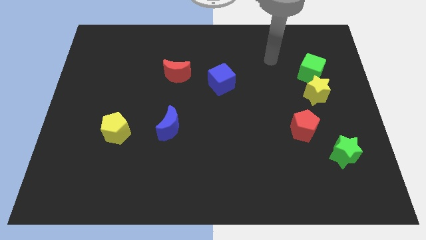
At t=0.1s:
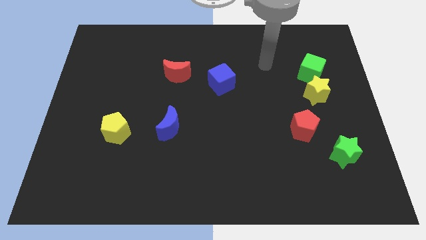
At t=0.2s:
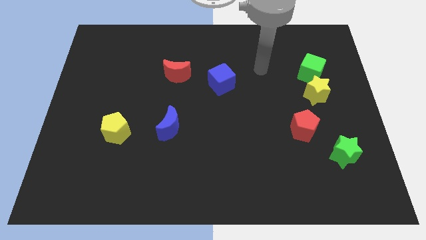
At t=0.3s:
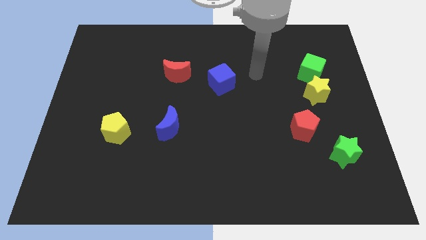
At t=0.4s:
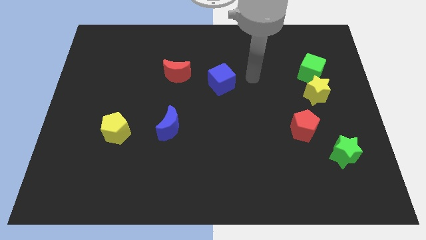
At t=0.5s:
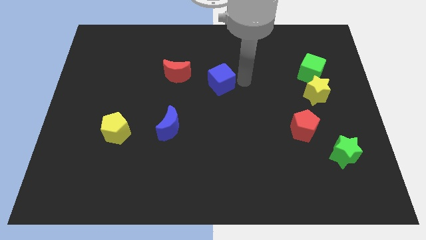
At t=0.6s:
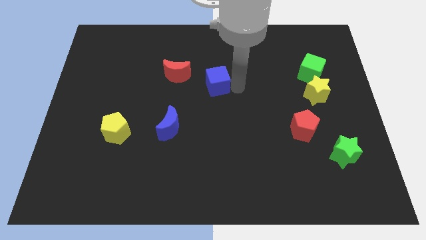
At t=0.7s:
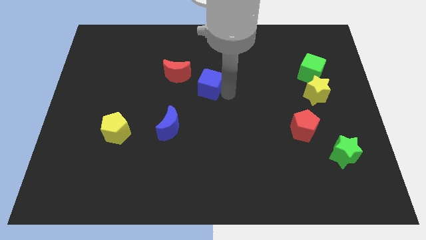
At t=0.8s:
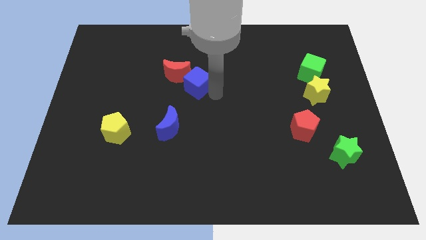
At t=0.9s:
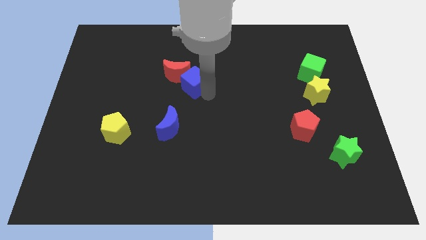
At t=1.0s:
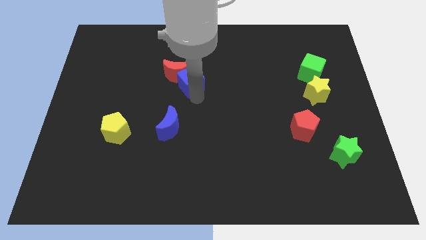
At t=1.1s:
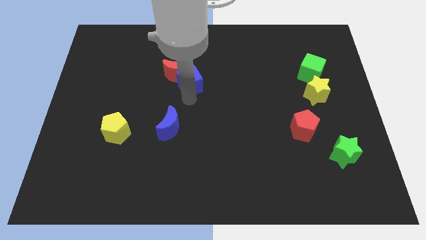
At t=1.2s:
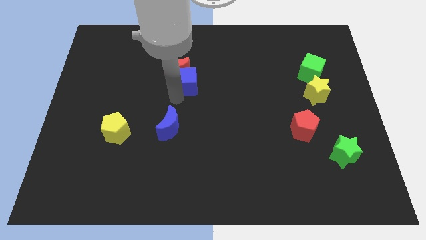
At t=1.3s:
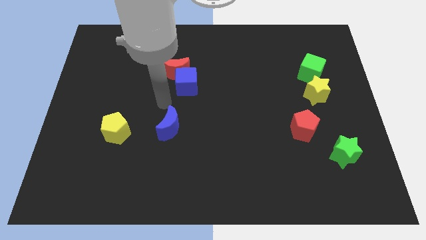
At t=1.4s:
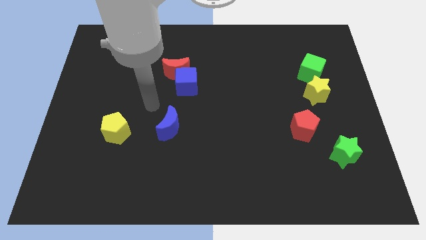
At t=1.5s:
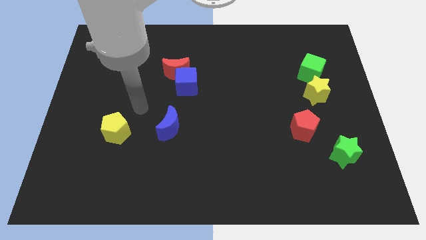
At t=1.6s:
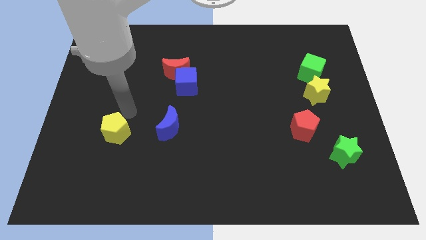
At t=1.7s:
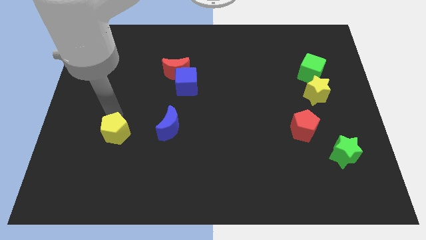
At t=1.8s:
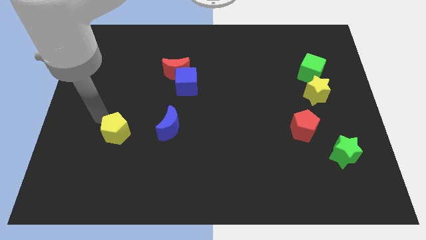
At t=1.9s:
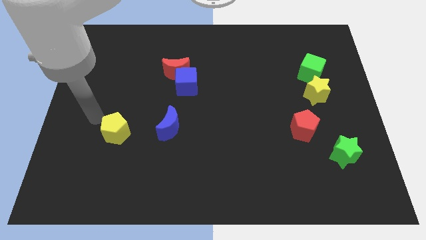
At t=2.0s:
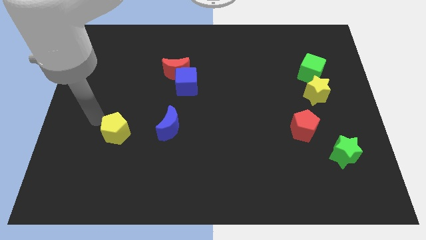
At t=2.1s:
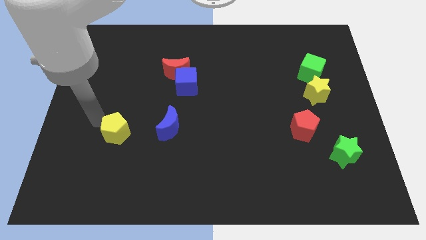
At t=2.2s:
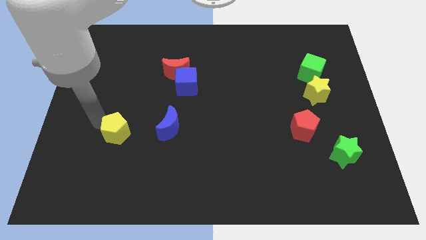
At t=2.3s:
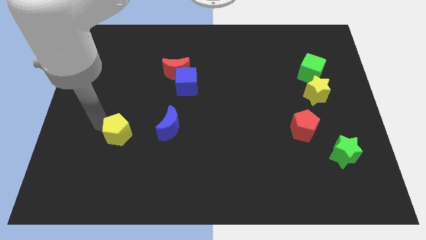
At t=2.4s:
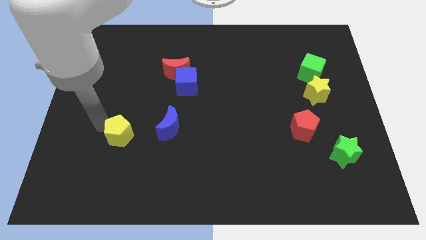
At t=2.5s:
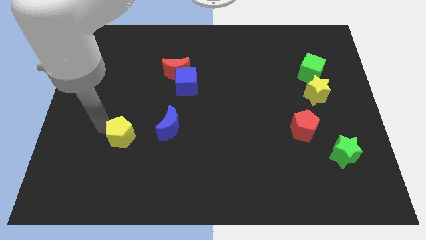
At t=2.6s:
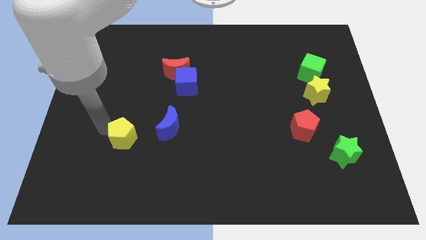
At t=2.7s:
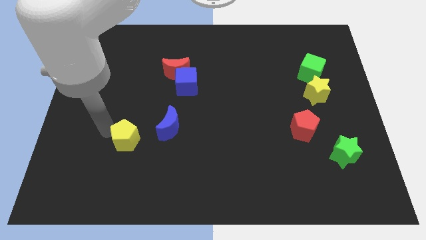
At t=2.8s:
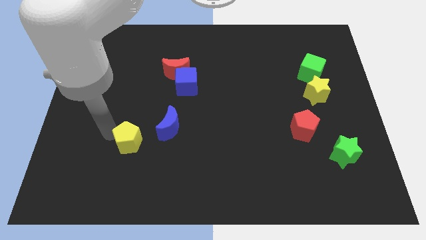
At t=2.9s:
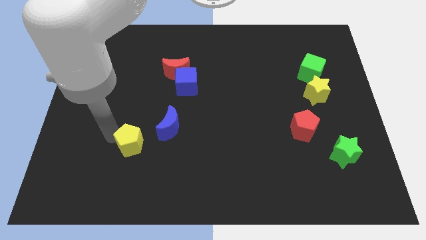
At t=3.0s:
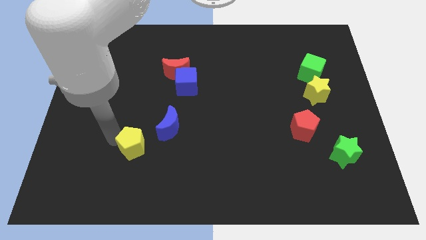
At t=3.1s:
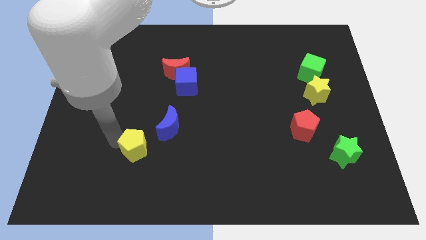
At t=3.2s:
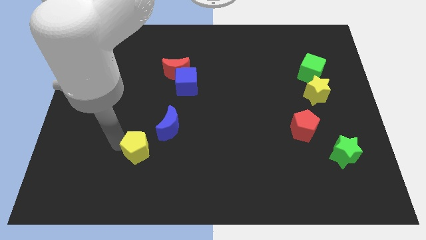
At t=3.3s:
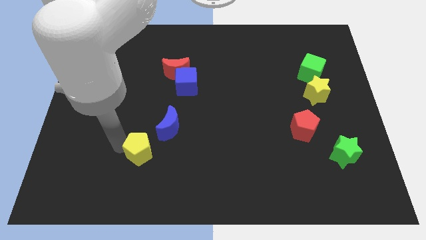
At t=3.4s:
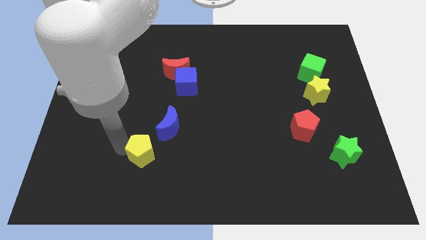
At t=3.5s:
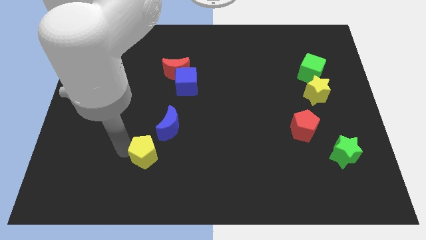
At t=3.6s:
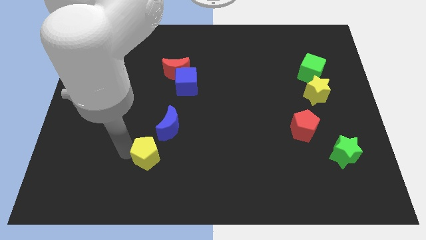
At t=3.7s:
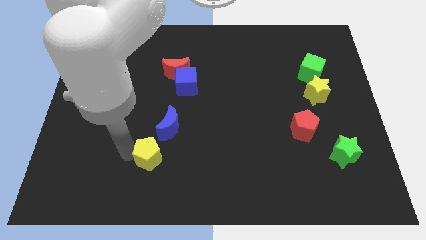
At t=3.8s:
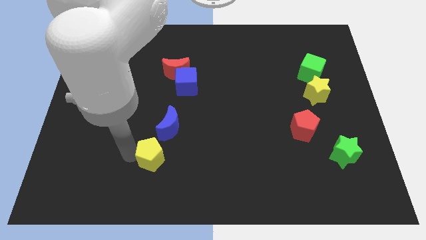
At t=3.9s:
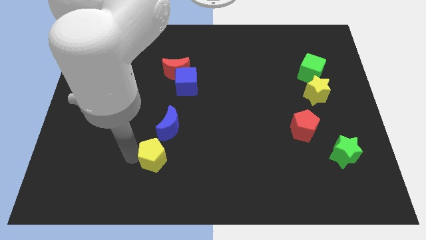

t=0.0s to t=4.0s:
slide the yellow pentagon a little to the right

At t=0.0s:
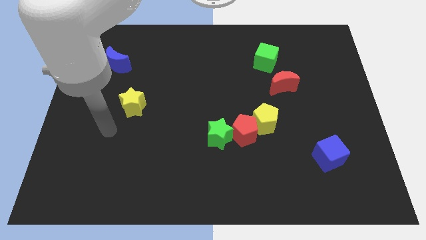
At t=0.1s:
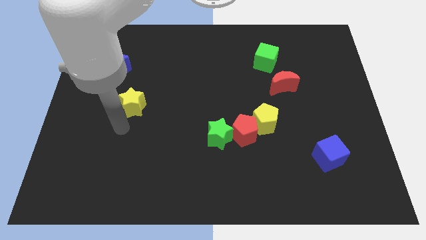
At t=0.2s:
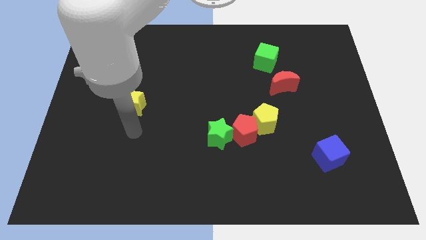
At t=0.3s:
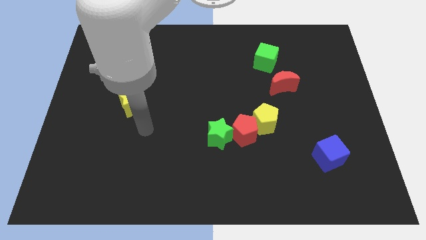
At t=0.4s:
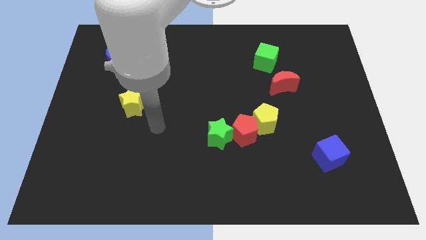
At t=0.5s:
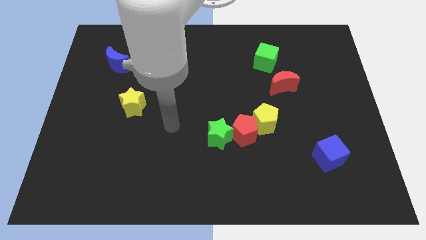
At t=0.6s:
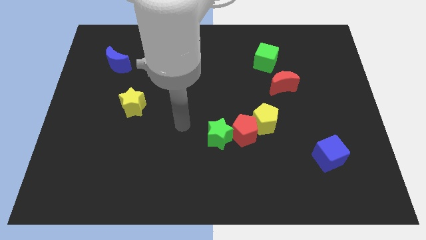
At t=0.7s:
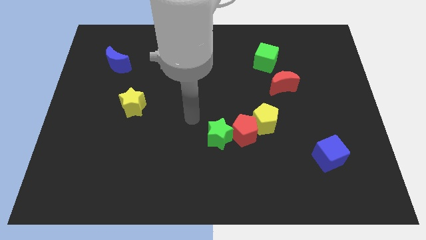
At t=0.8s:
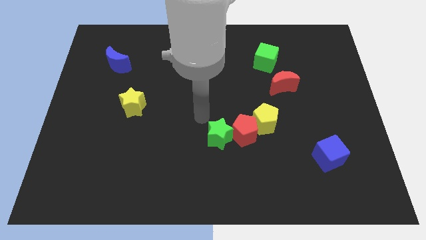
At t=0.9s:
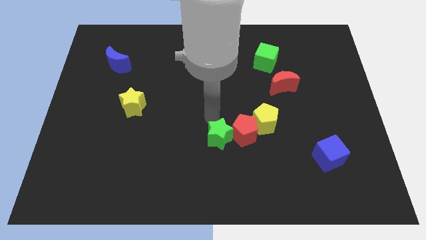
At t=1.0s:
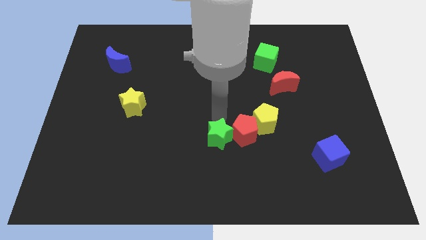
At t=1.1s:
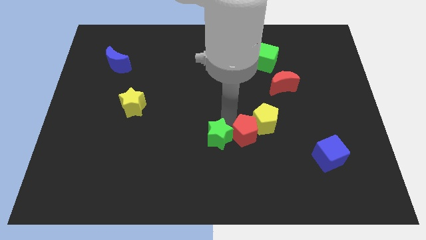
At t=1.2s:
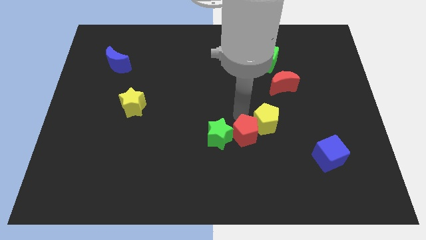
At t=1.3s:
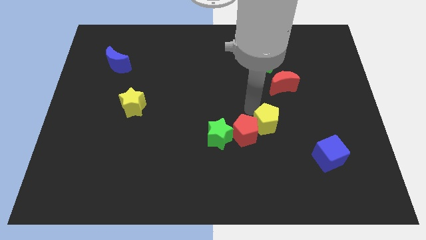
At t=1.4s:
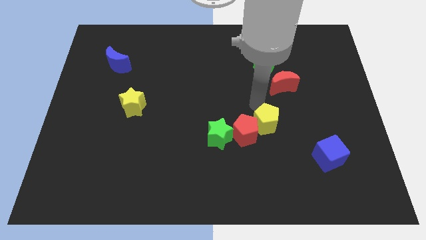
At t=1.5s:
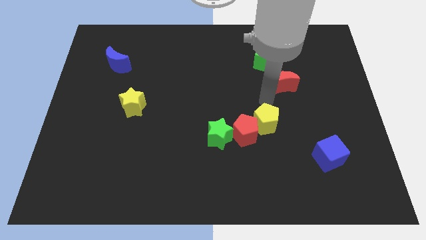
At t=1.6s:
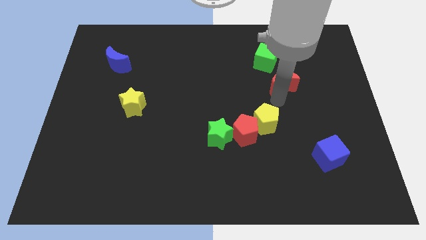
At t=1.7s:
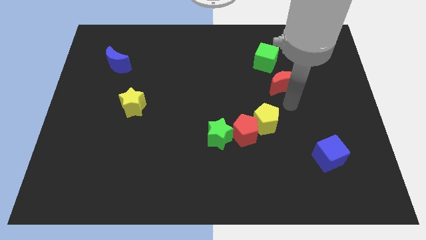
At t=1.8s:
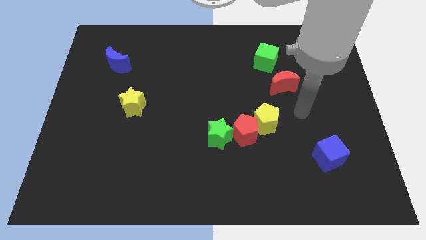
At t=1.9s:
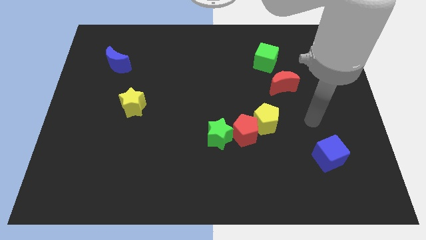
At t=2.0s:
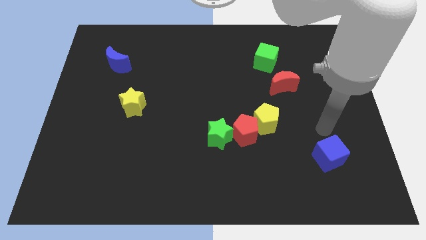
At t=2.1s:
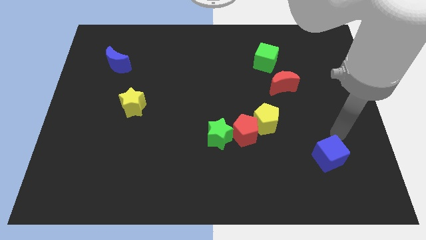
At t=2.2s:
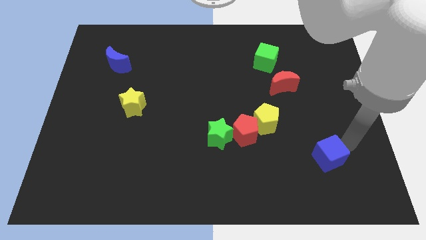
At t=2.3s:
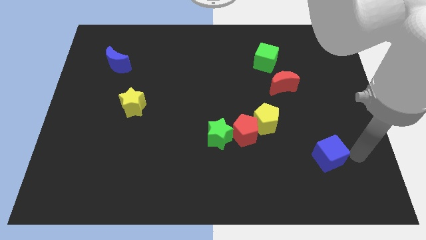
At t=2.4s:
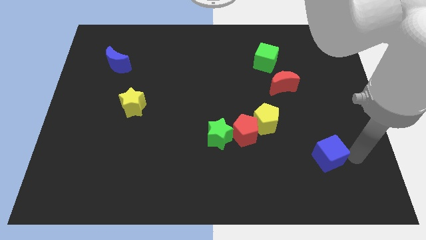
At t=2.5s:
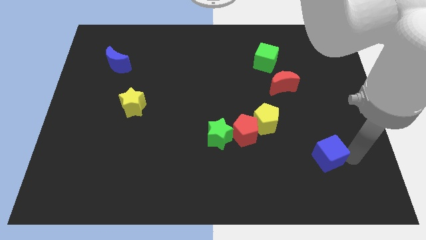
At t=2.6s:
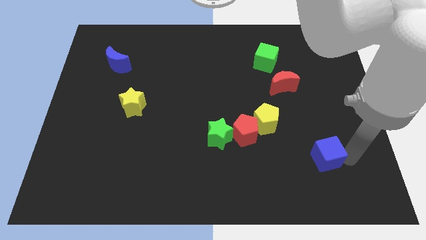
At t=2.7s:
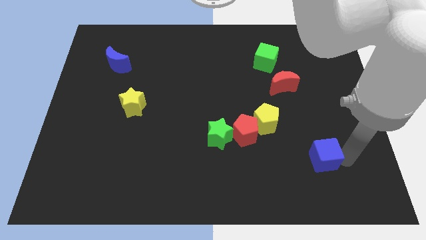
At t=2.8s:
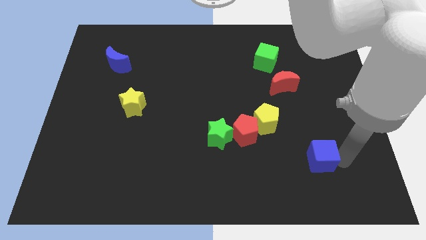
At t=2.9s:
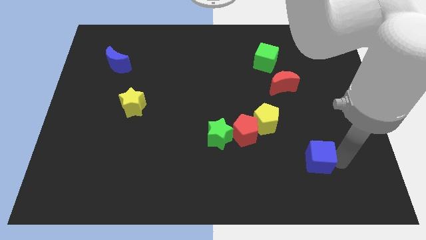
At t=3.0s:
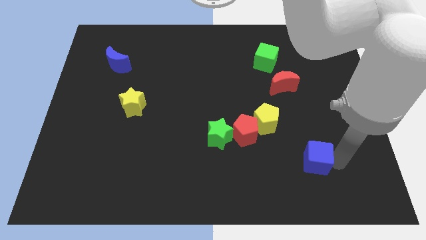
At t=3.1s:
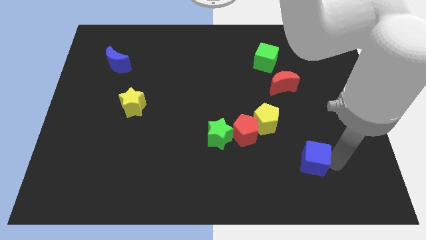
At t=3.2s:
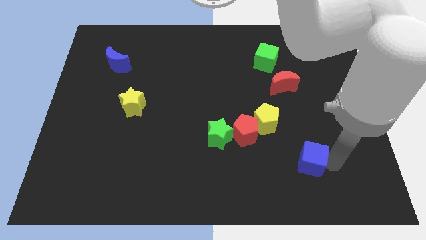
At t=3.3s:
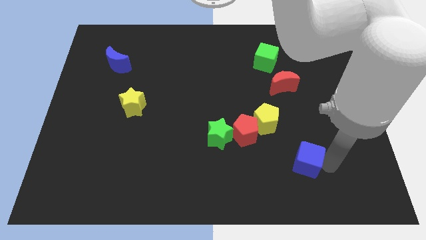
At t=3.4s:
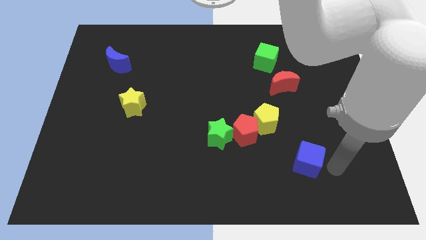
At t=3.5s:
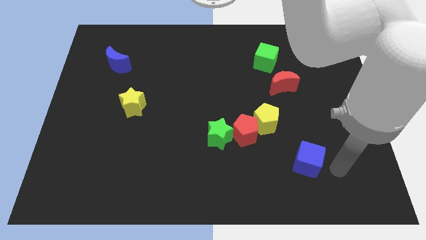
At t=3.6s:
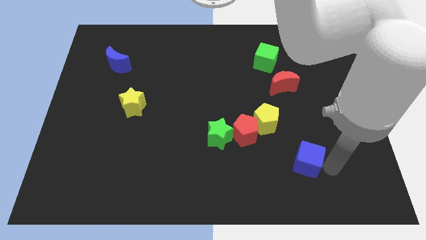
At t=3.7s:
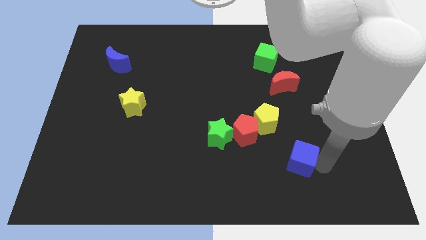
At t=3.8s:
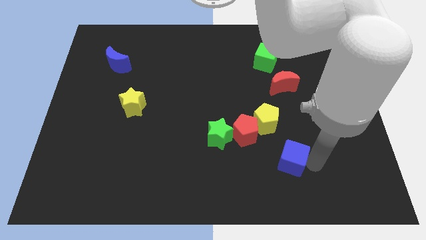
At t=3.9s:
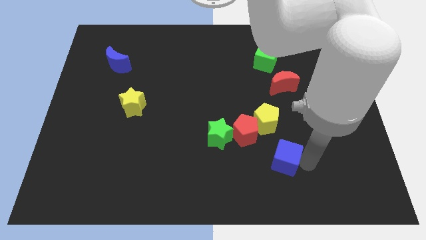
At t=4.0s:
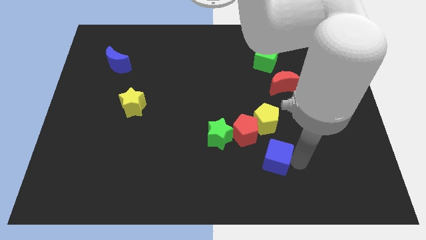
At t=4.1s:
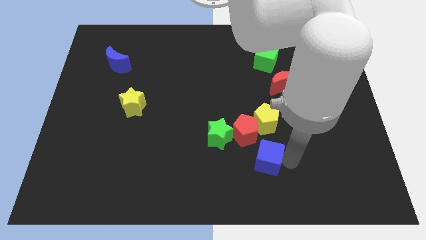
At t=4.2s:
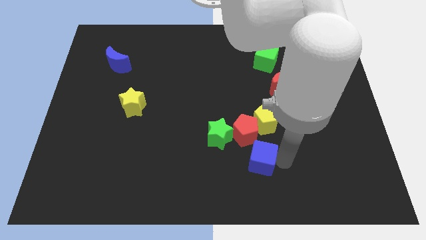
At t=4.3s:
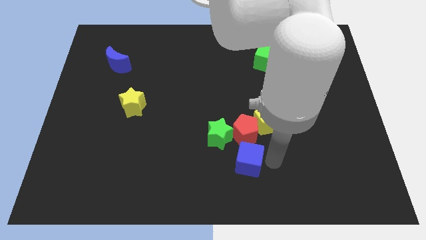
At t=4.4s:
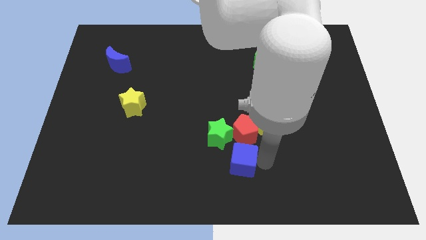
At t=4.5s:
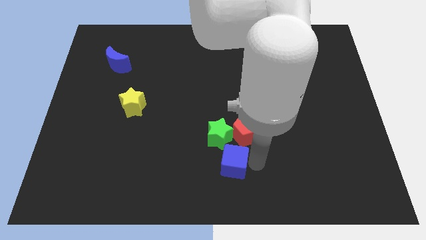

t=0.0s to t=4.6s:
move the blue cube to the left
